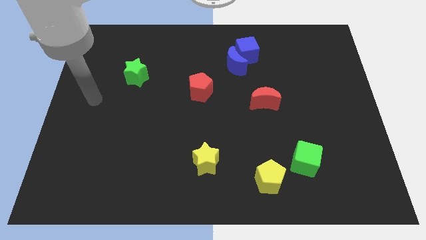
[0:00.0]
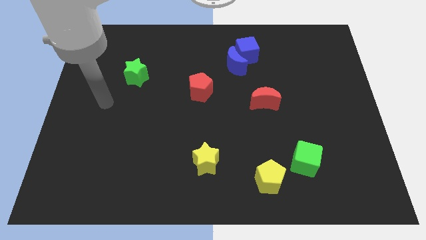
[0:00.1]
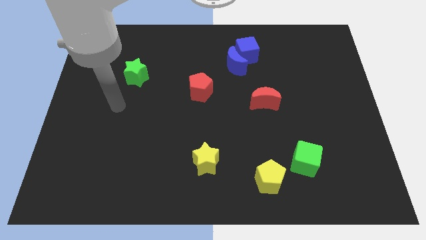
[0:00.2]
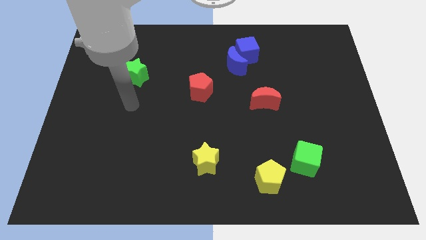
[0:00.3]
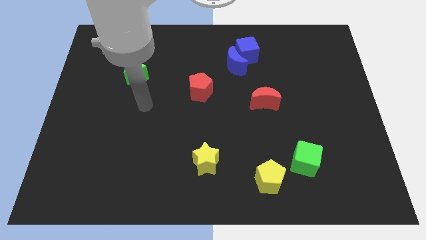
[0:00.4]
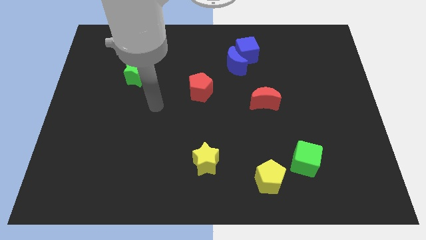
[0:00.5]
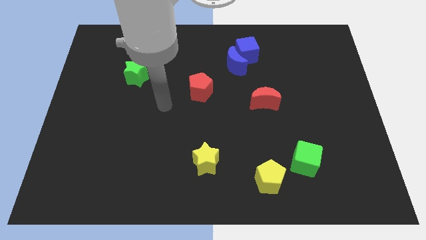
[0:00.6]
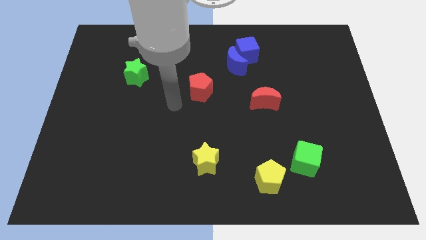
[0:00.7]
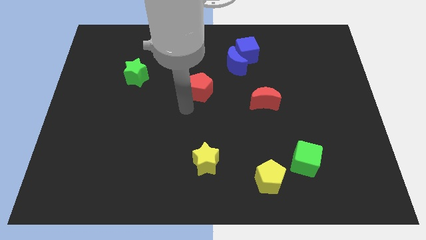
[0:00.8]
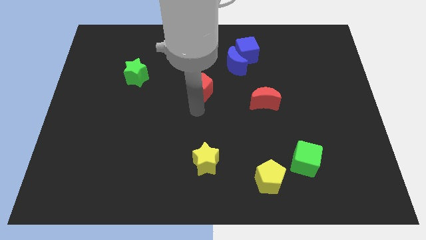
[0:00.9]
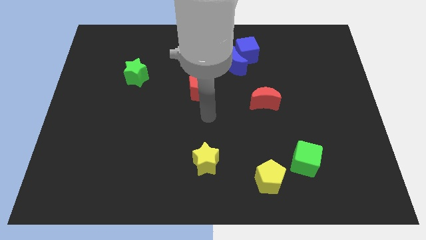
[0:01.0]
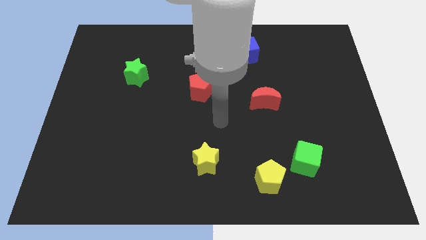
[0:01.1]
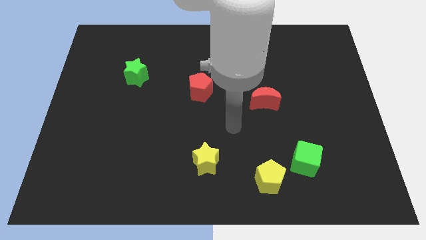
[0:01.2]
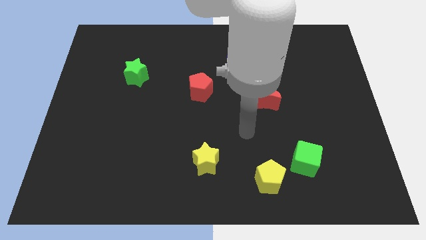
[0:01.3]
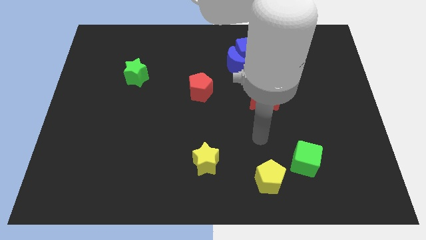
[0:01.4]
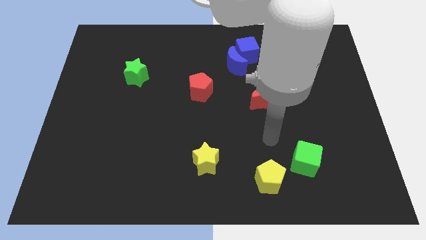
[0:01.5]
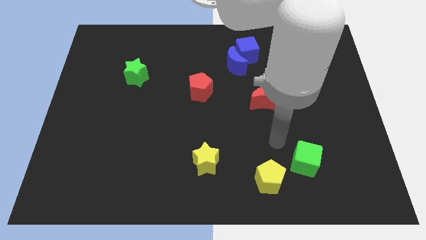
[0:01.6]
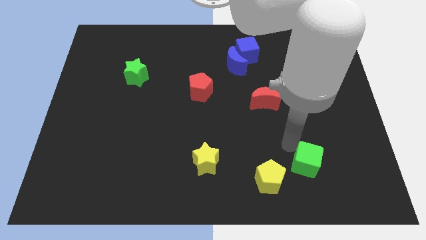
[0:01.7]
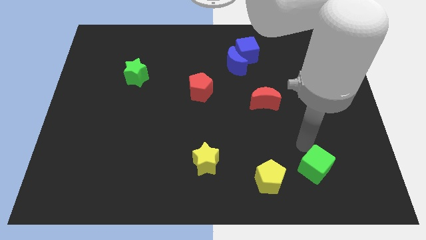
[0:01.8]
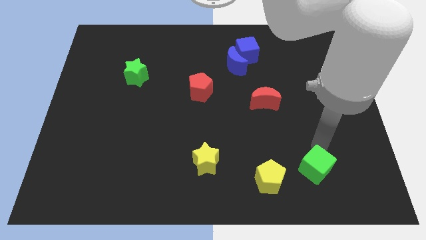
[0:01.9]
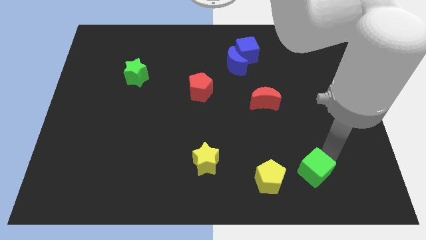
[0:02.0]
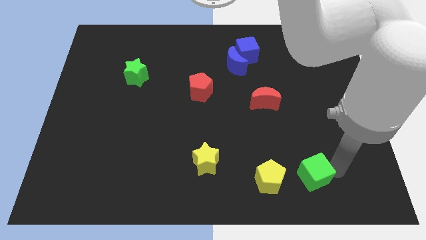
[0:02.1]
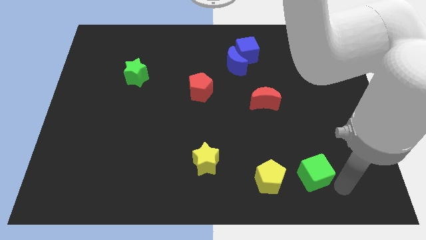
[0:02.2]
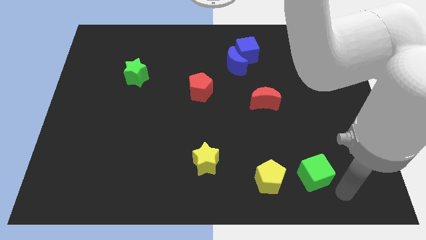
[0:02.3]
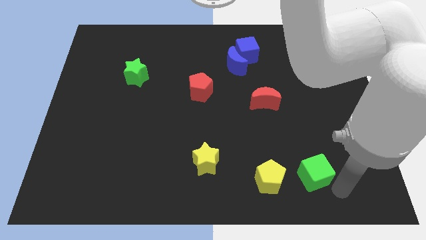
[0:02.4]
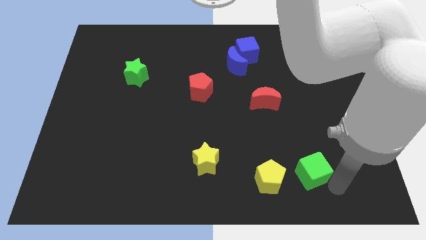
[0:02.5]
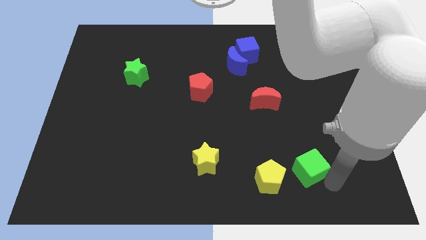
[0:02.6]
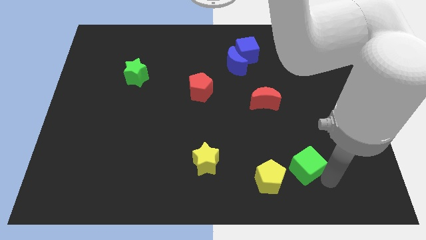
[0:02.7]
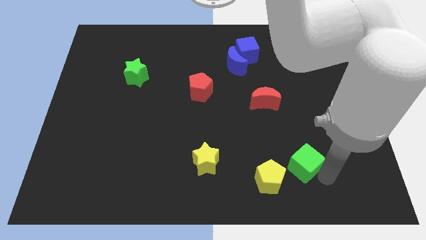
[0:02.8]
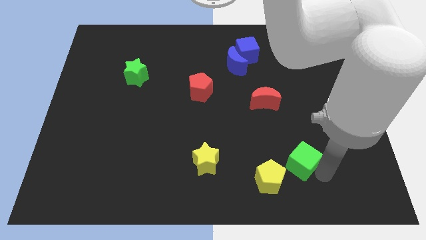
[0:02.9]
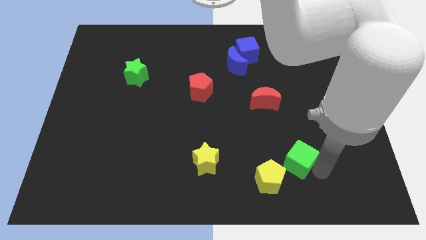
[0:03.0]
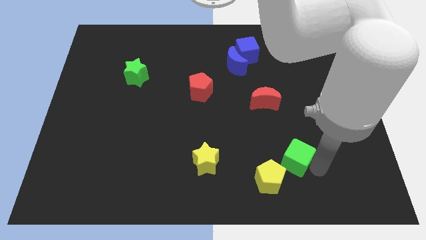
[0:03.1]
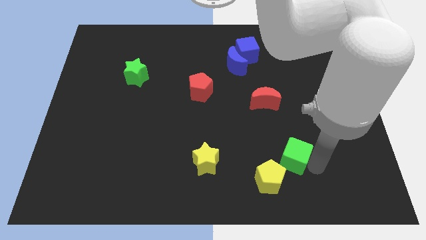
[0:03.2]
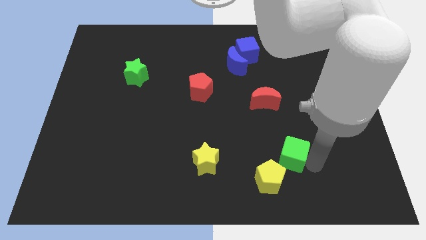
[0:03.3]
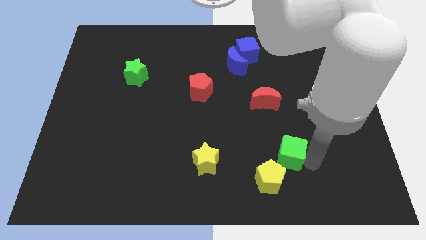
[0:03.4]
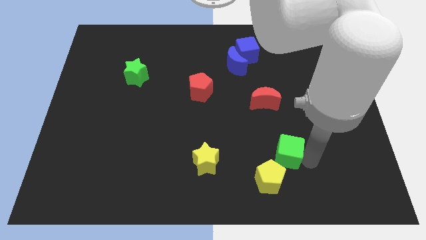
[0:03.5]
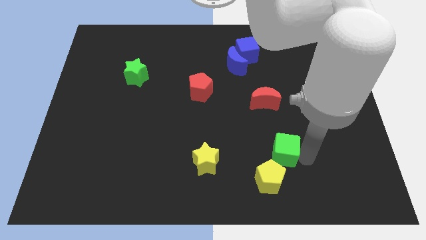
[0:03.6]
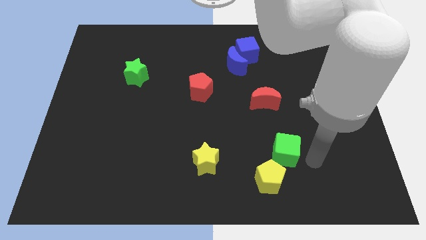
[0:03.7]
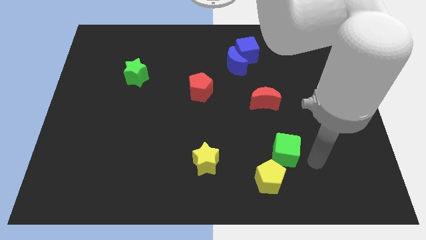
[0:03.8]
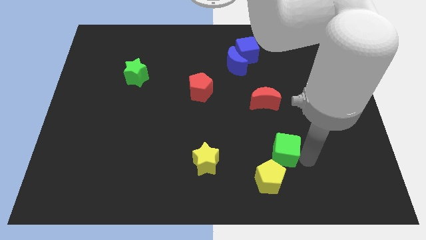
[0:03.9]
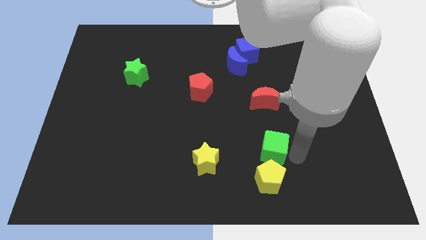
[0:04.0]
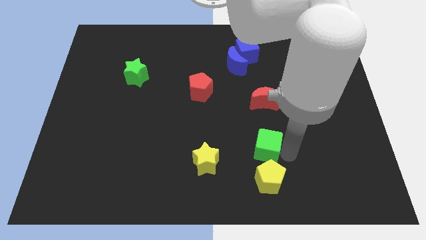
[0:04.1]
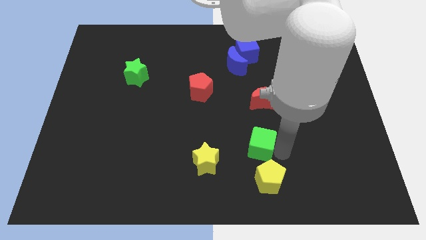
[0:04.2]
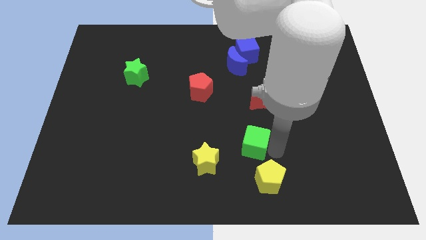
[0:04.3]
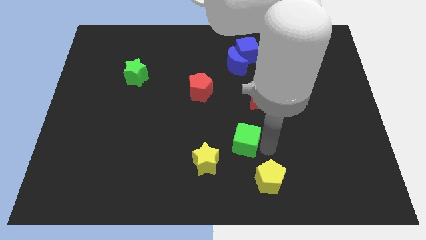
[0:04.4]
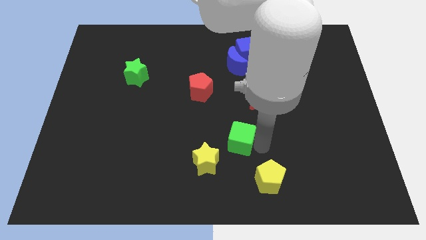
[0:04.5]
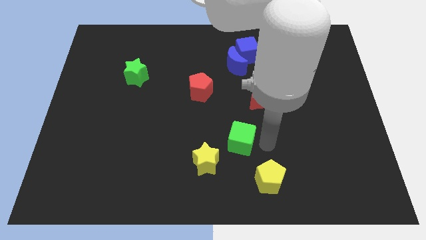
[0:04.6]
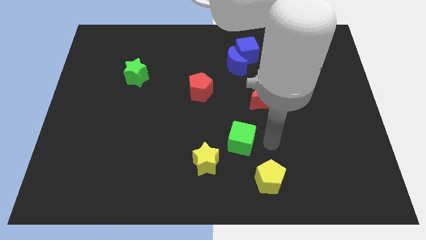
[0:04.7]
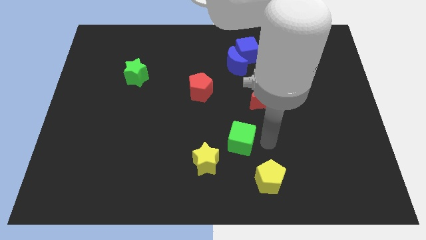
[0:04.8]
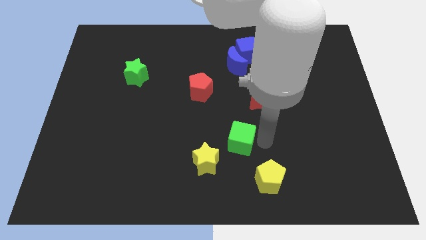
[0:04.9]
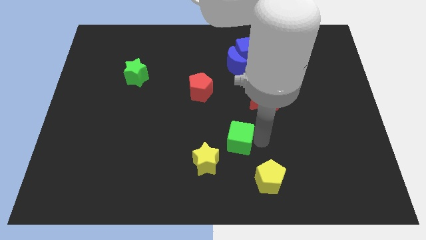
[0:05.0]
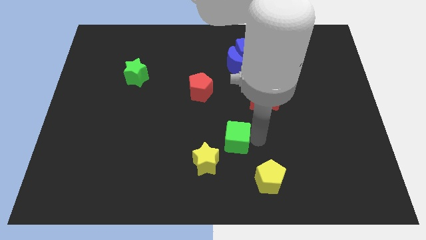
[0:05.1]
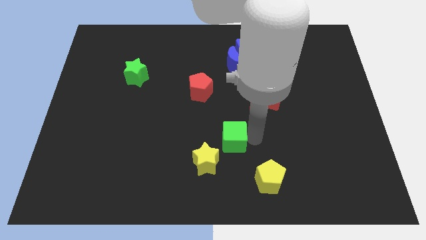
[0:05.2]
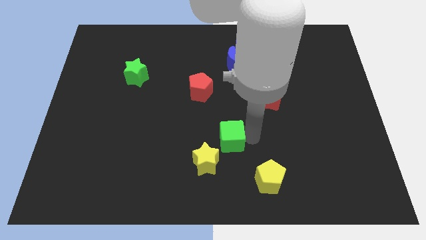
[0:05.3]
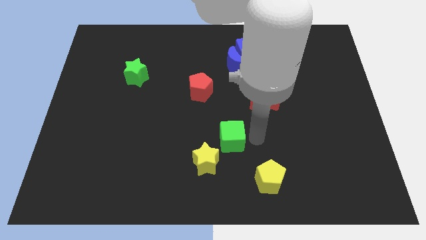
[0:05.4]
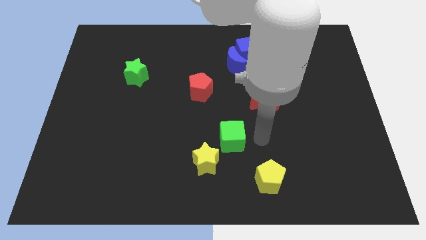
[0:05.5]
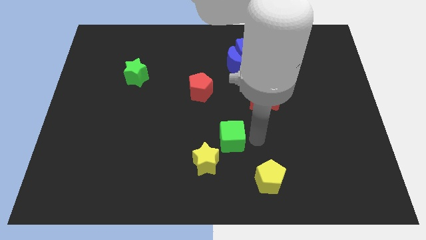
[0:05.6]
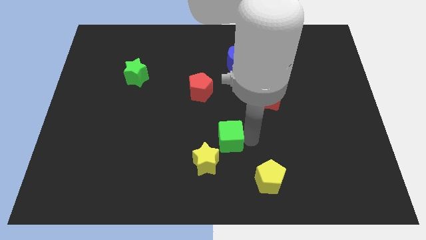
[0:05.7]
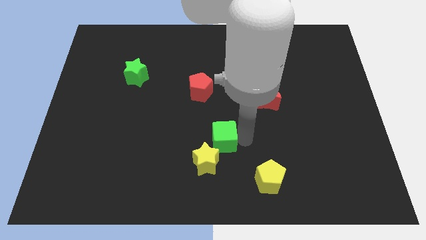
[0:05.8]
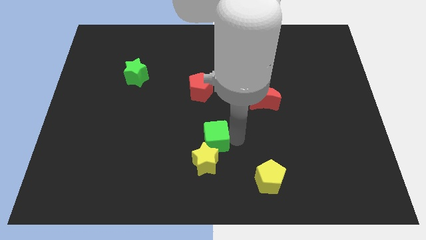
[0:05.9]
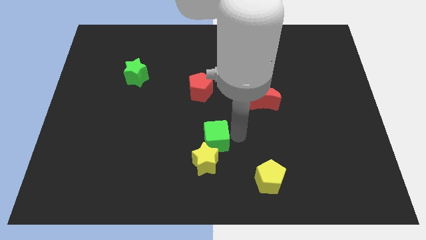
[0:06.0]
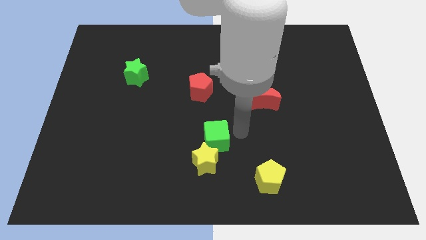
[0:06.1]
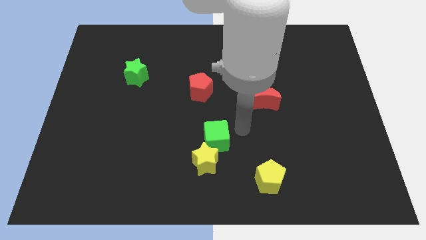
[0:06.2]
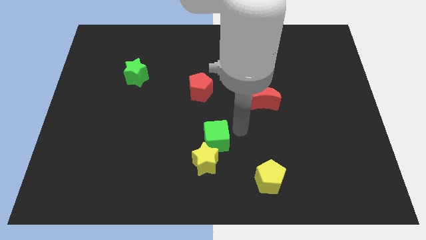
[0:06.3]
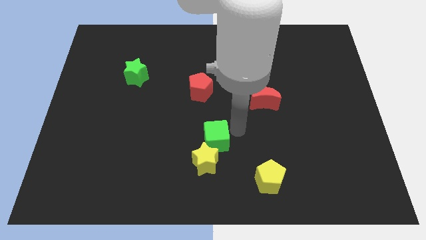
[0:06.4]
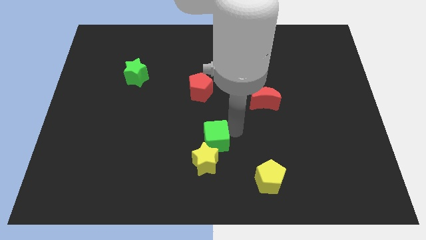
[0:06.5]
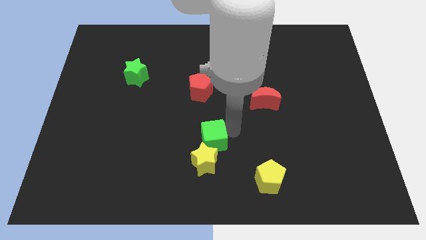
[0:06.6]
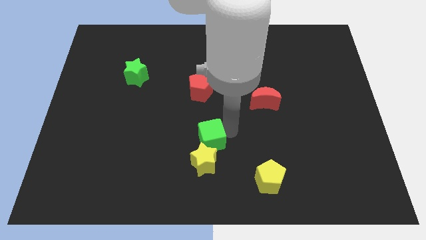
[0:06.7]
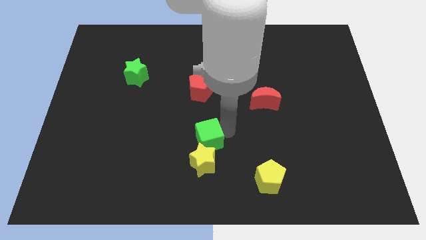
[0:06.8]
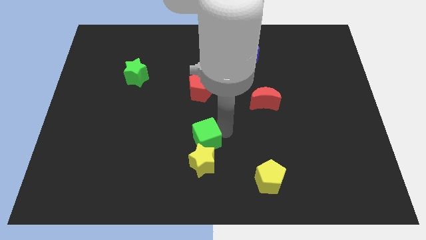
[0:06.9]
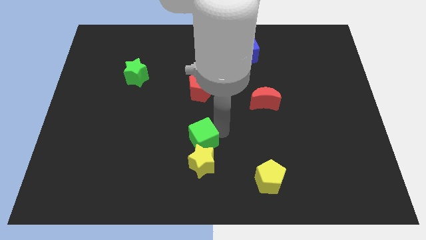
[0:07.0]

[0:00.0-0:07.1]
push the green cube to the left

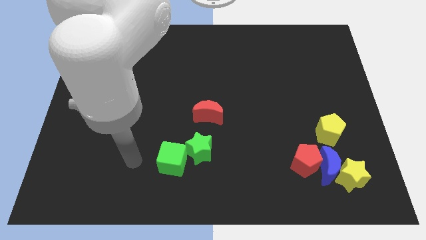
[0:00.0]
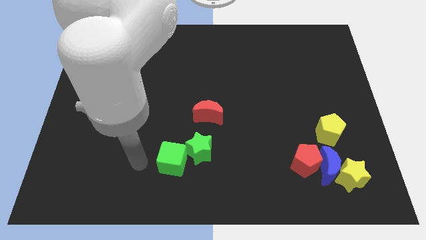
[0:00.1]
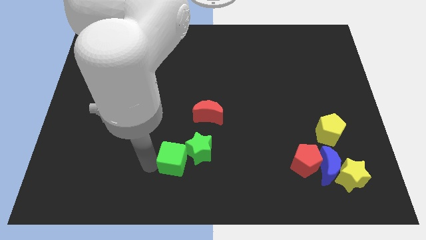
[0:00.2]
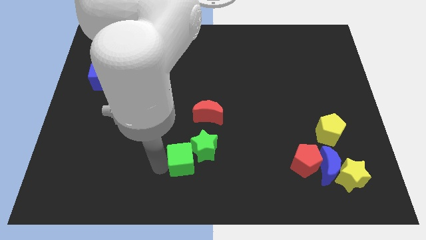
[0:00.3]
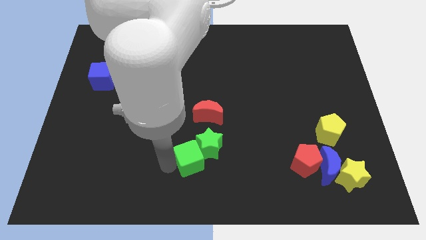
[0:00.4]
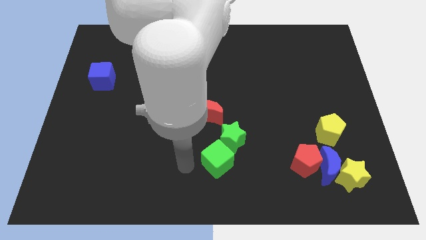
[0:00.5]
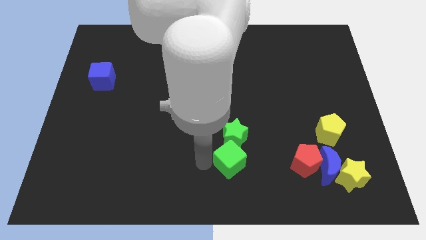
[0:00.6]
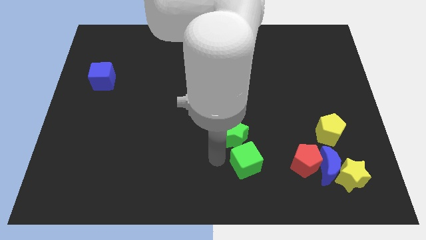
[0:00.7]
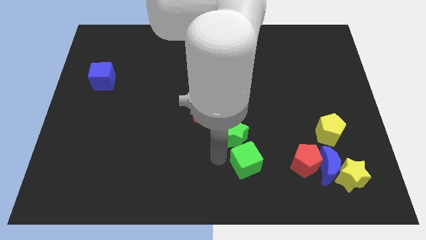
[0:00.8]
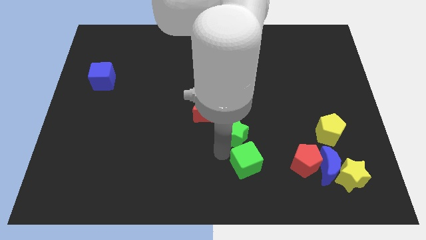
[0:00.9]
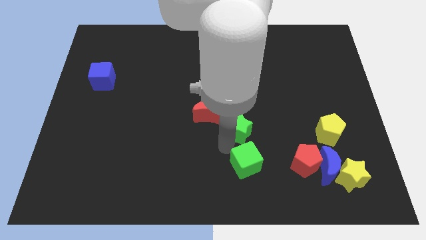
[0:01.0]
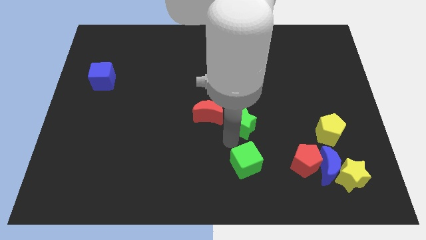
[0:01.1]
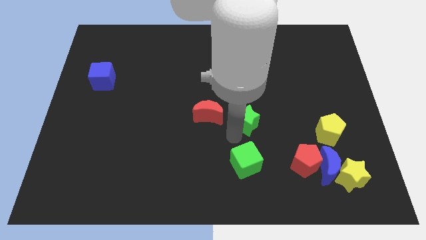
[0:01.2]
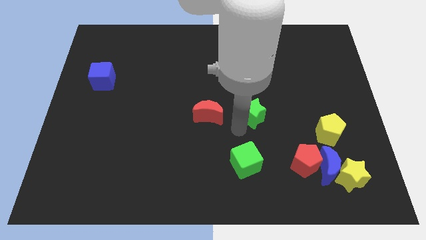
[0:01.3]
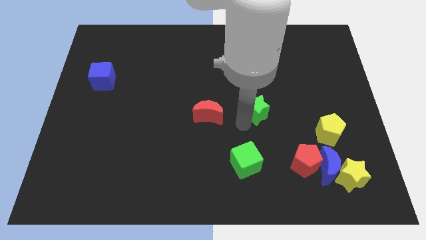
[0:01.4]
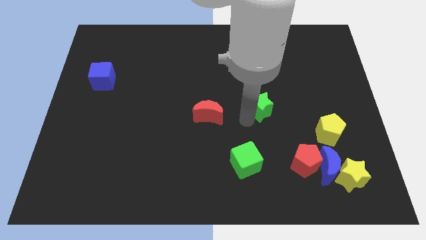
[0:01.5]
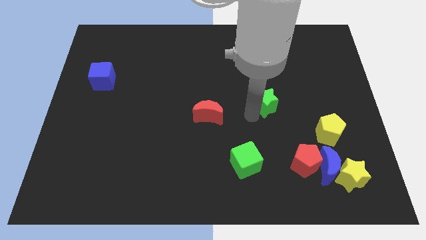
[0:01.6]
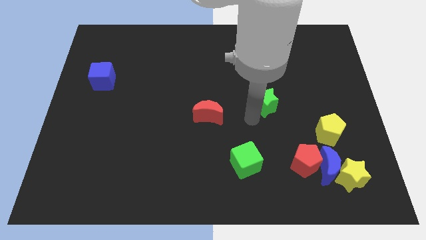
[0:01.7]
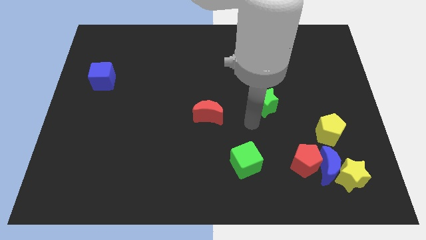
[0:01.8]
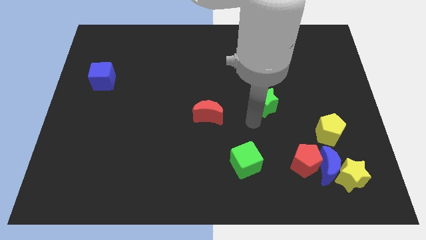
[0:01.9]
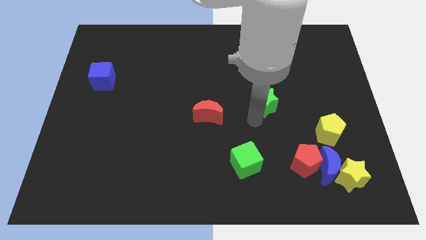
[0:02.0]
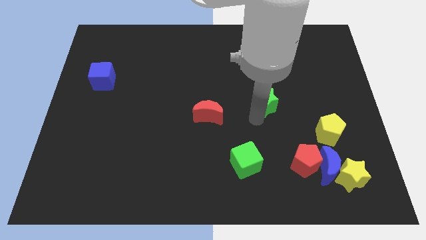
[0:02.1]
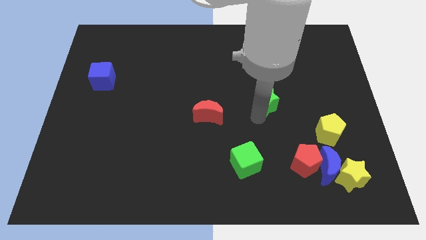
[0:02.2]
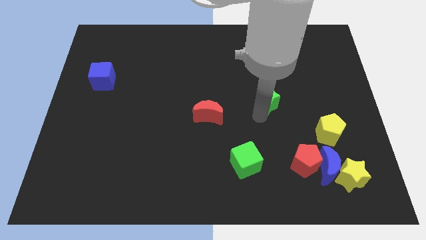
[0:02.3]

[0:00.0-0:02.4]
push the green star upwards and right diagonally
